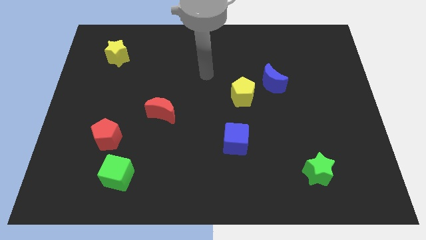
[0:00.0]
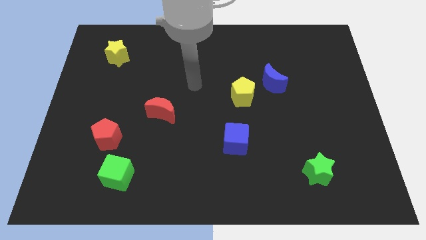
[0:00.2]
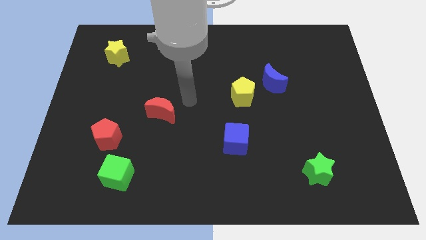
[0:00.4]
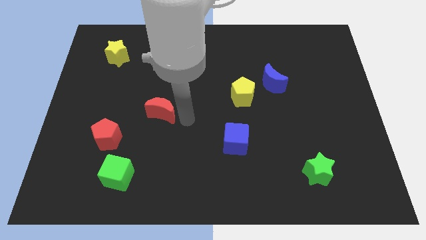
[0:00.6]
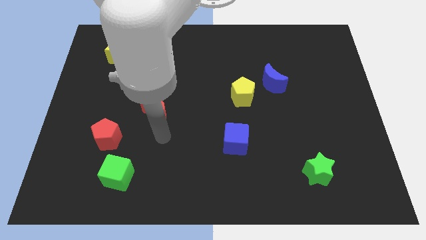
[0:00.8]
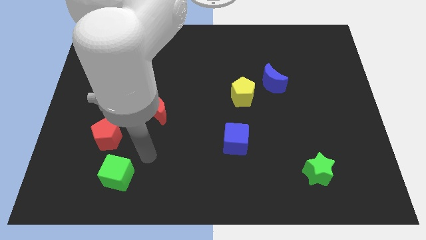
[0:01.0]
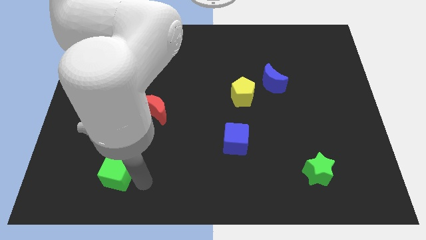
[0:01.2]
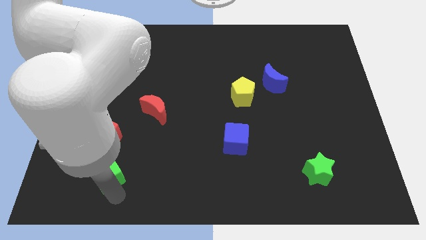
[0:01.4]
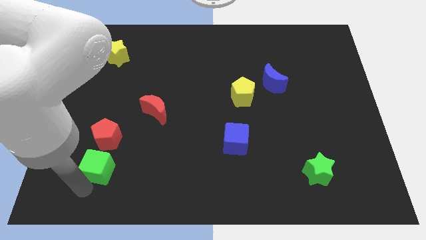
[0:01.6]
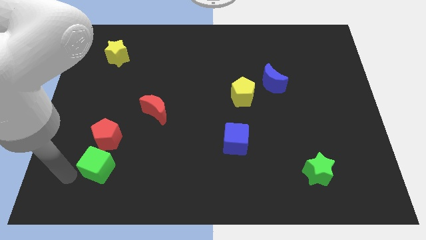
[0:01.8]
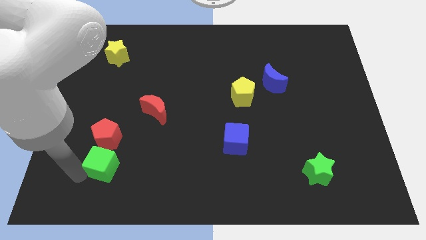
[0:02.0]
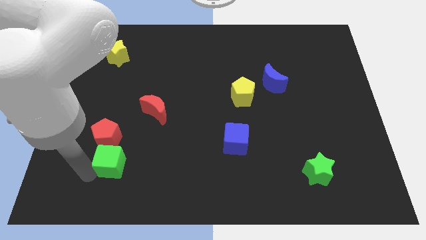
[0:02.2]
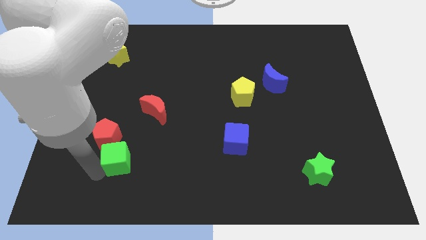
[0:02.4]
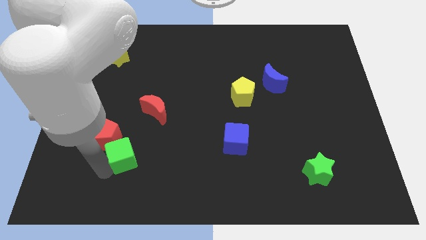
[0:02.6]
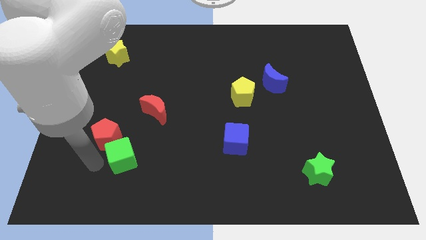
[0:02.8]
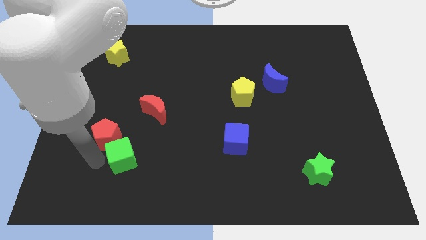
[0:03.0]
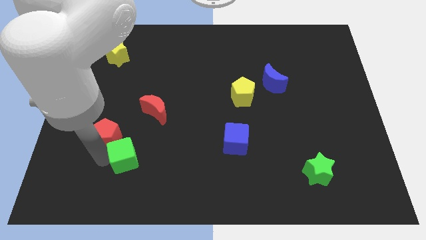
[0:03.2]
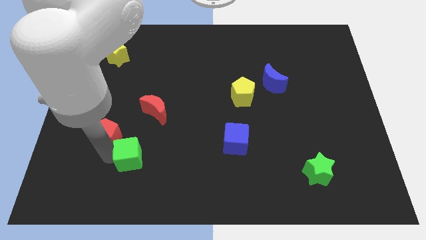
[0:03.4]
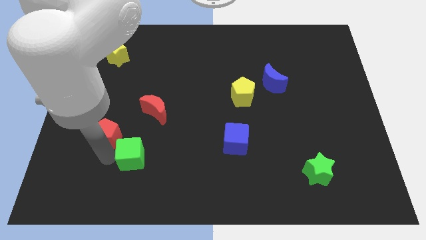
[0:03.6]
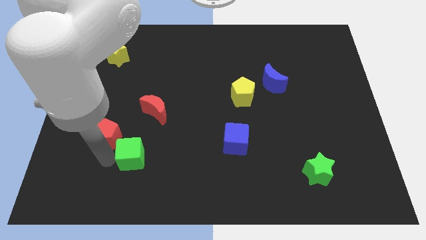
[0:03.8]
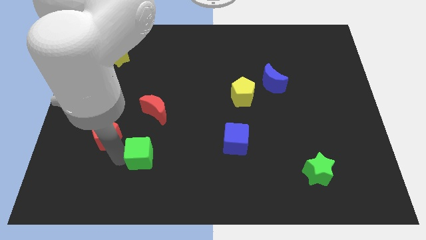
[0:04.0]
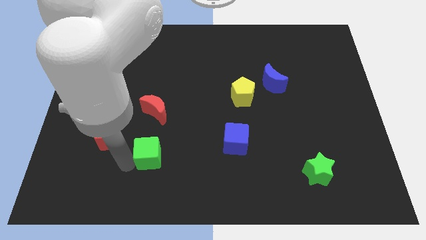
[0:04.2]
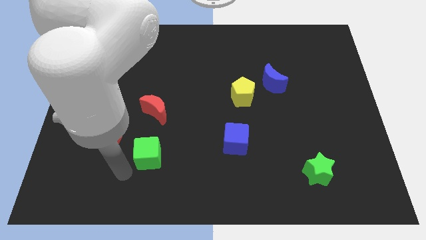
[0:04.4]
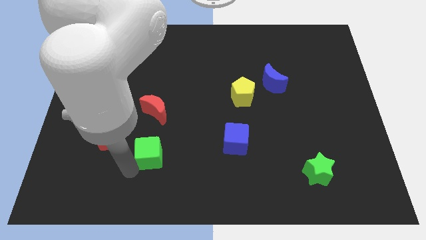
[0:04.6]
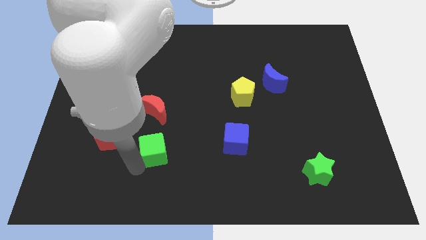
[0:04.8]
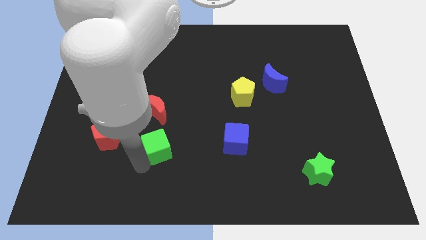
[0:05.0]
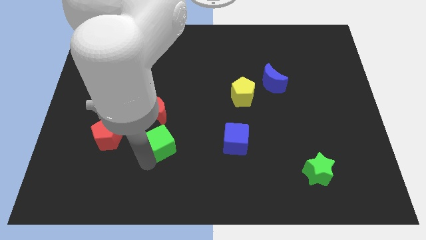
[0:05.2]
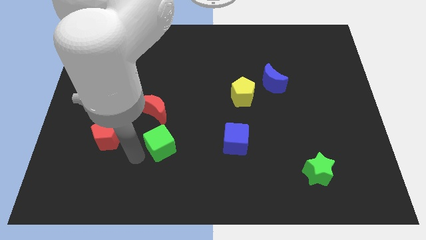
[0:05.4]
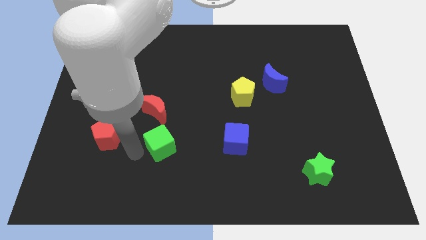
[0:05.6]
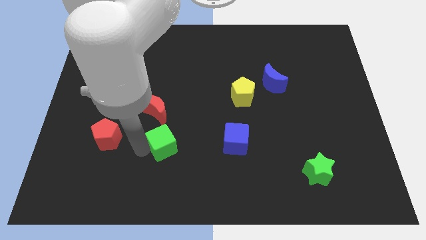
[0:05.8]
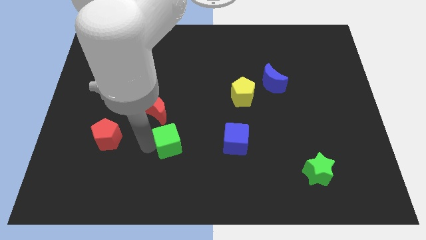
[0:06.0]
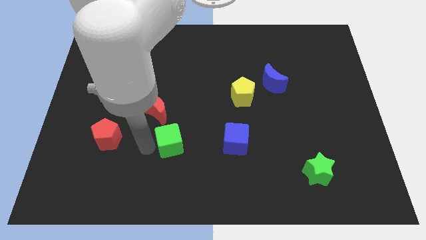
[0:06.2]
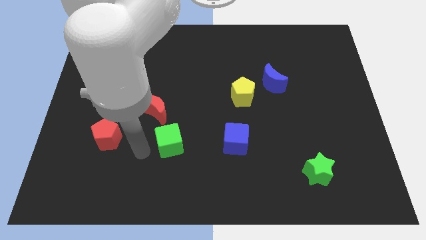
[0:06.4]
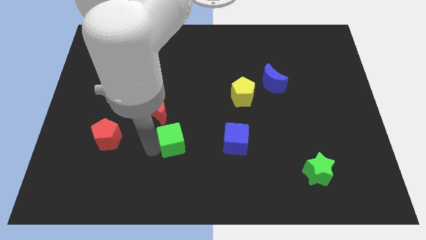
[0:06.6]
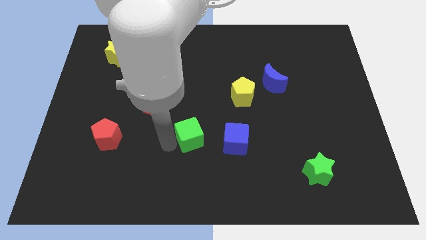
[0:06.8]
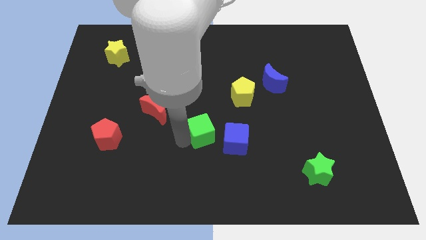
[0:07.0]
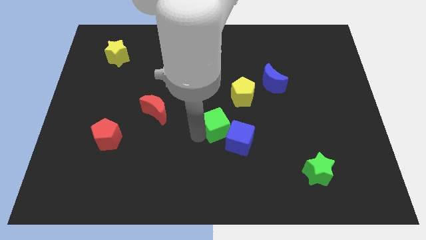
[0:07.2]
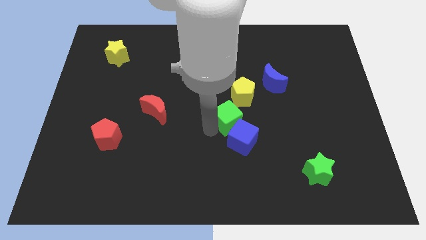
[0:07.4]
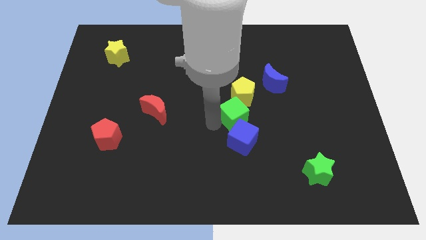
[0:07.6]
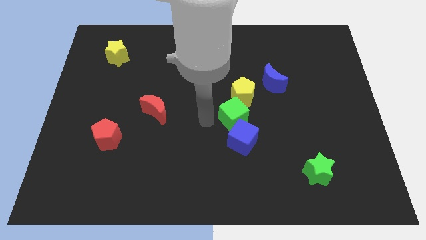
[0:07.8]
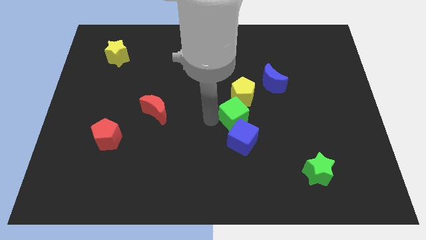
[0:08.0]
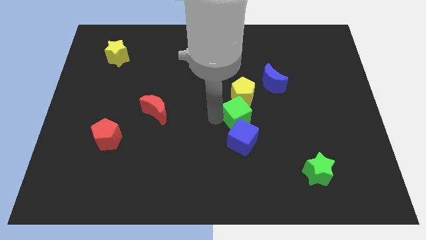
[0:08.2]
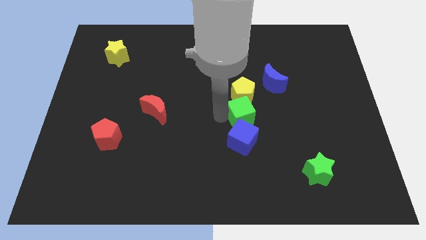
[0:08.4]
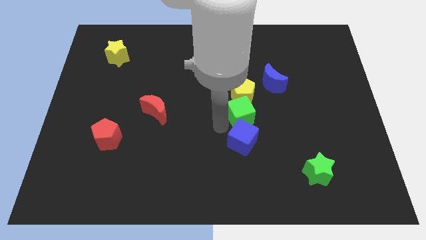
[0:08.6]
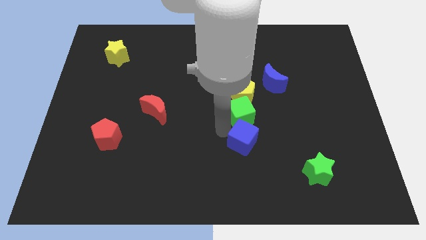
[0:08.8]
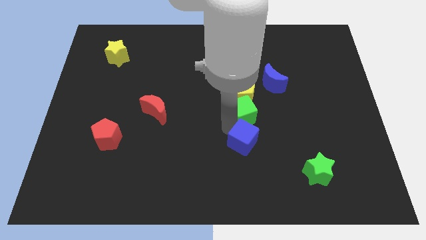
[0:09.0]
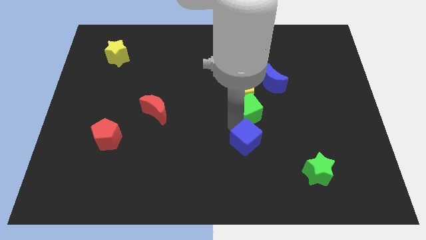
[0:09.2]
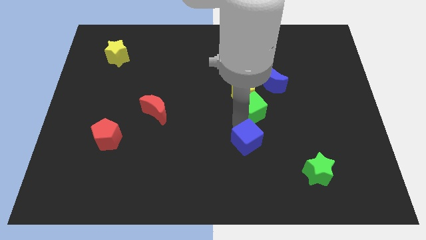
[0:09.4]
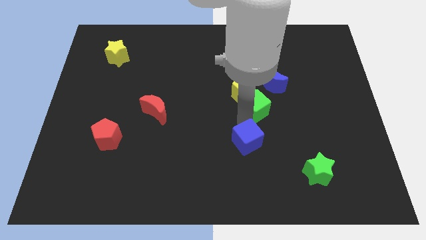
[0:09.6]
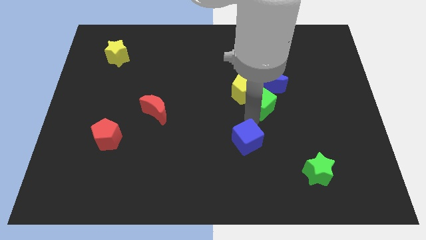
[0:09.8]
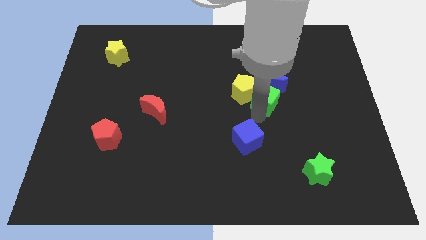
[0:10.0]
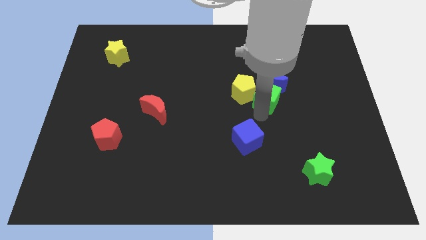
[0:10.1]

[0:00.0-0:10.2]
push the green cube next to the blue moon

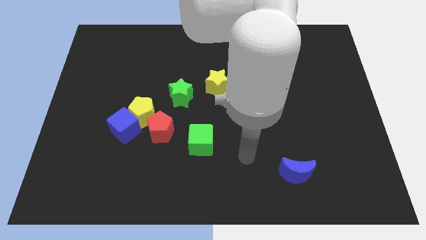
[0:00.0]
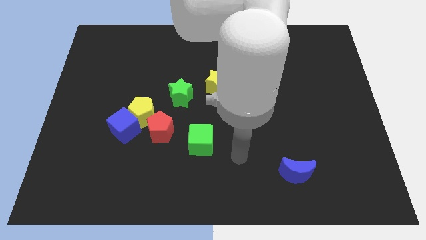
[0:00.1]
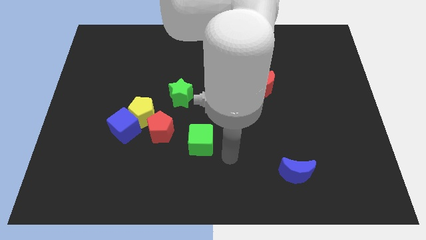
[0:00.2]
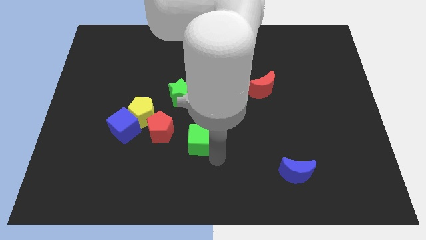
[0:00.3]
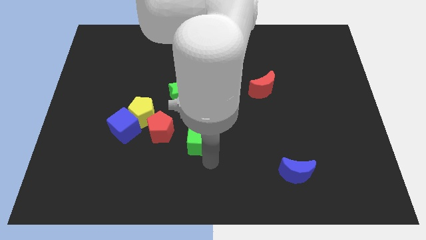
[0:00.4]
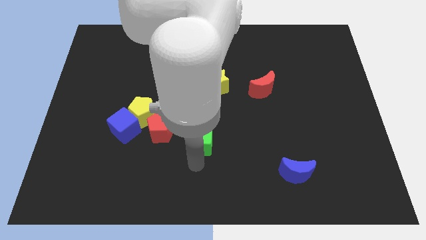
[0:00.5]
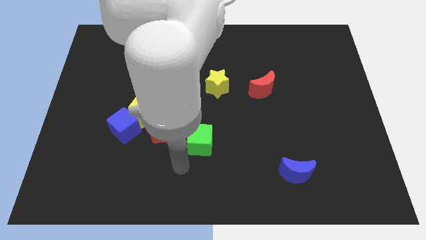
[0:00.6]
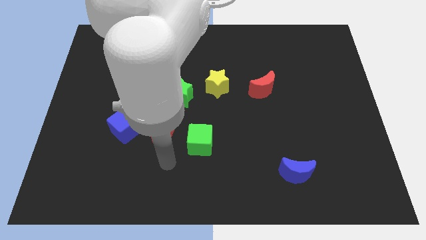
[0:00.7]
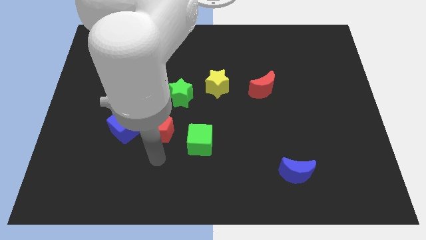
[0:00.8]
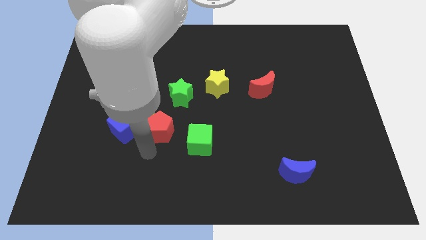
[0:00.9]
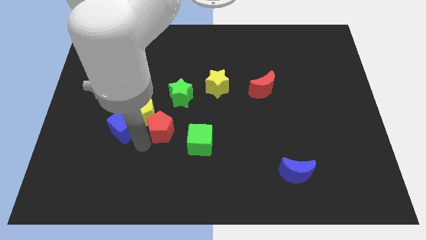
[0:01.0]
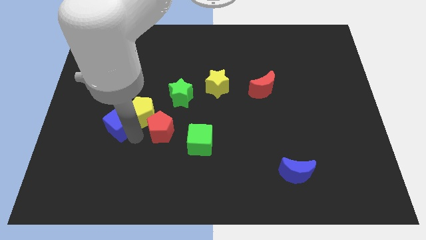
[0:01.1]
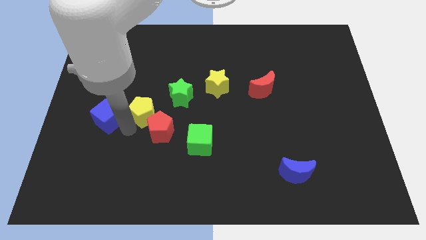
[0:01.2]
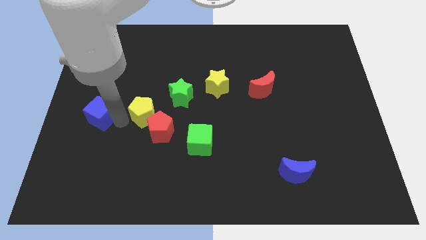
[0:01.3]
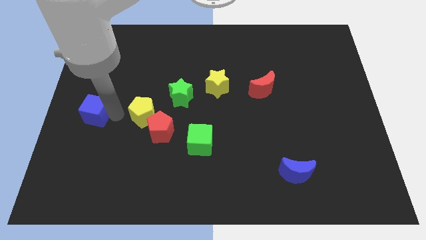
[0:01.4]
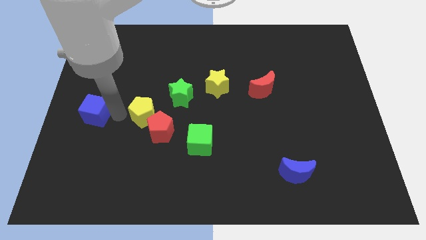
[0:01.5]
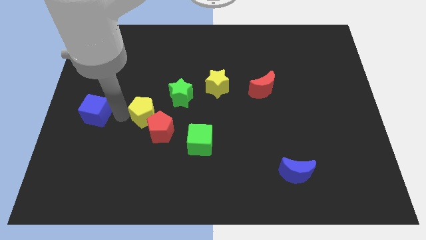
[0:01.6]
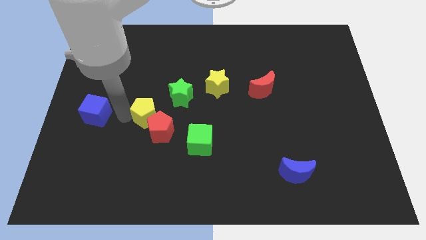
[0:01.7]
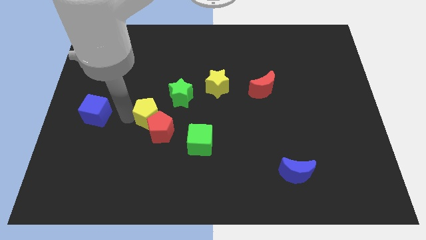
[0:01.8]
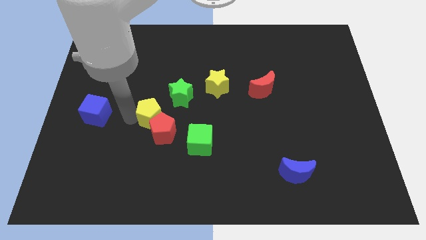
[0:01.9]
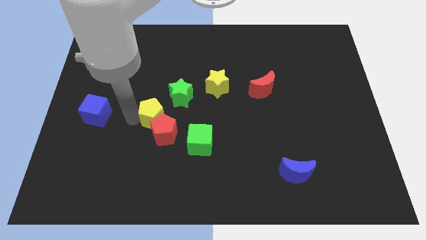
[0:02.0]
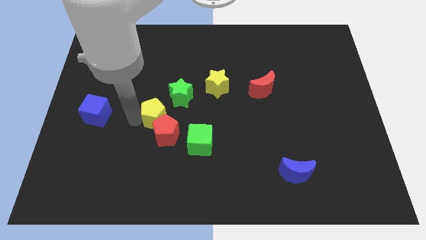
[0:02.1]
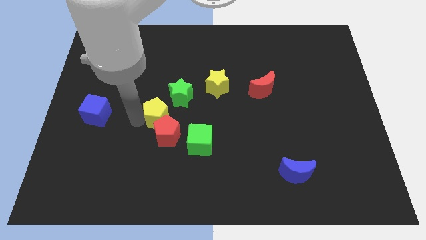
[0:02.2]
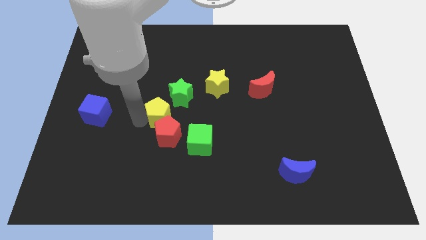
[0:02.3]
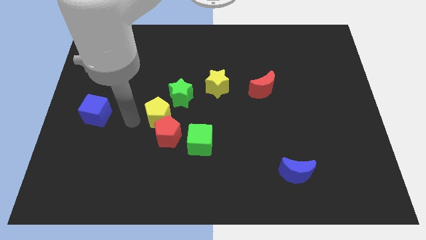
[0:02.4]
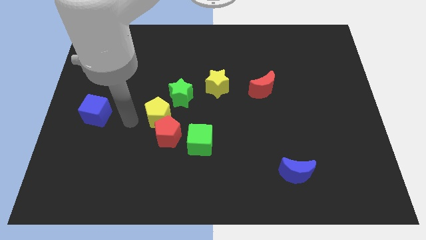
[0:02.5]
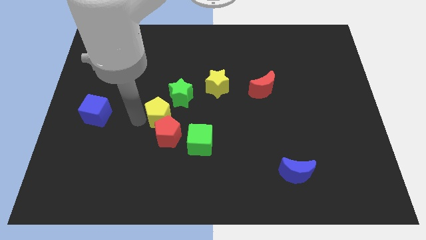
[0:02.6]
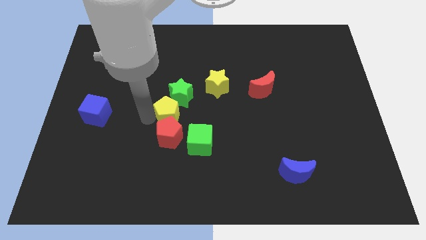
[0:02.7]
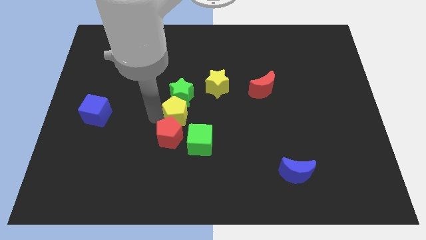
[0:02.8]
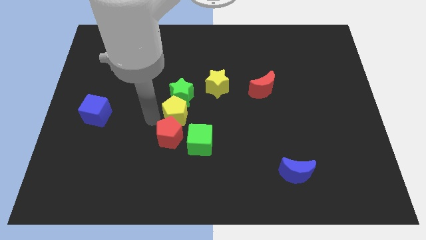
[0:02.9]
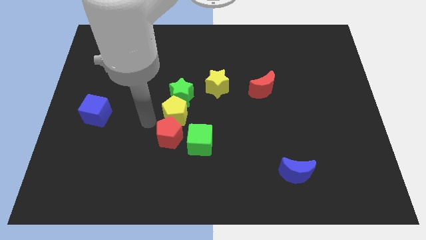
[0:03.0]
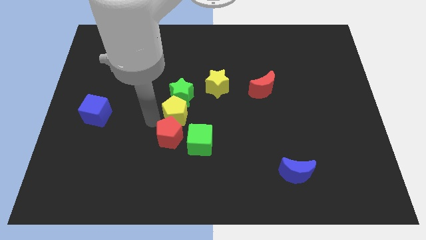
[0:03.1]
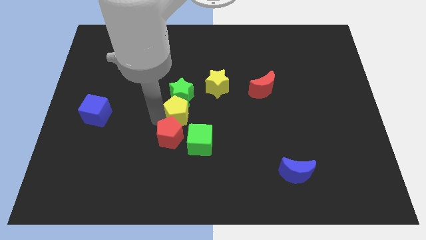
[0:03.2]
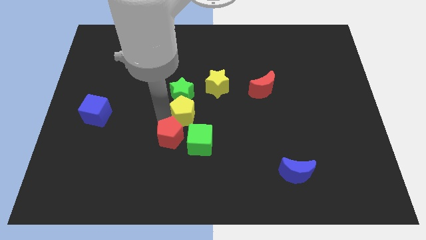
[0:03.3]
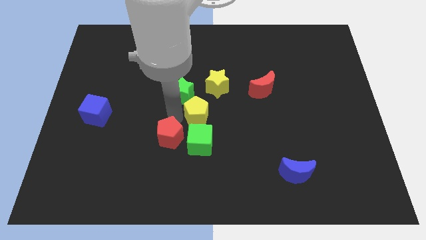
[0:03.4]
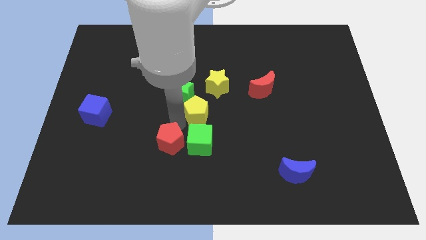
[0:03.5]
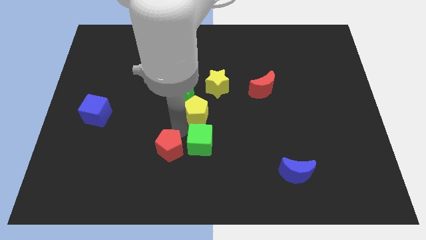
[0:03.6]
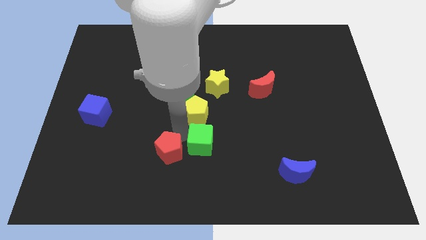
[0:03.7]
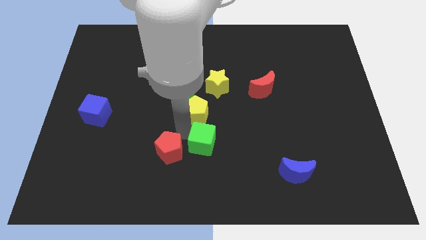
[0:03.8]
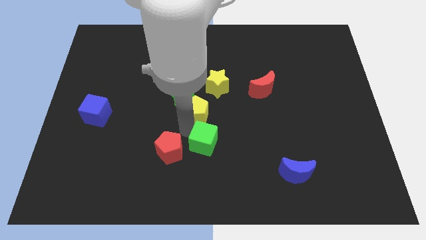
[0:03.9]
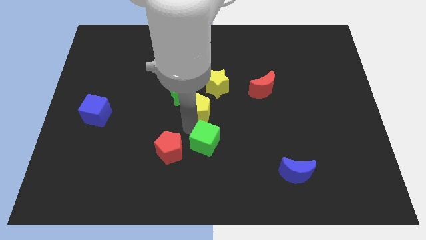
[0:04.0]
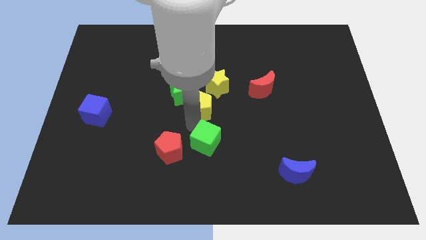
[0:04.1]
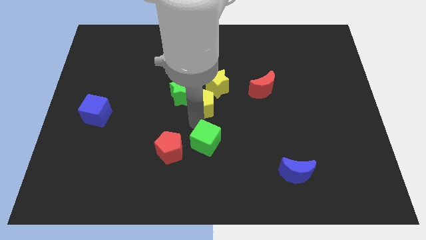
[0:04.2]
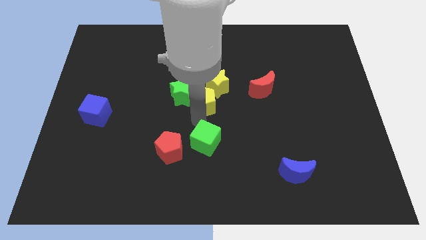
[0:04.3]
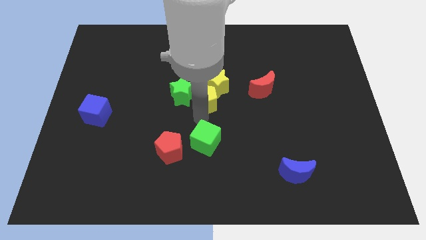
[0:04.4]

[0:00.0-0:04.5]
put the yellow pentagon to the yellow star
